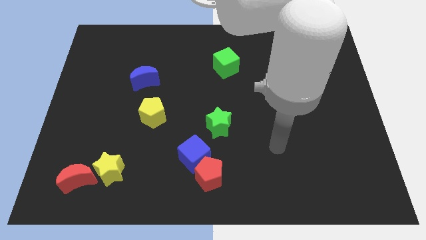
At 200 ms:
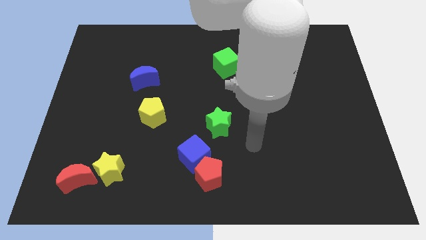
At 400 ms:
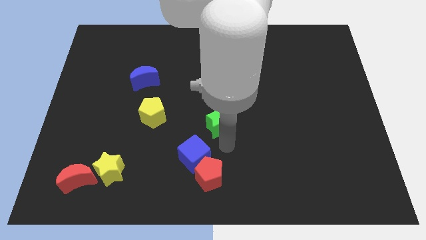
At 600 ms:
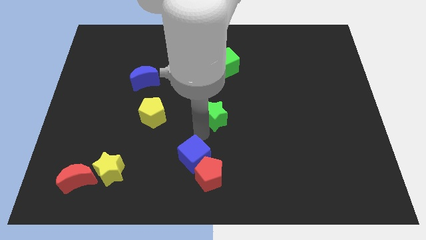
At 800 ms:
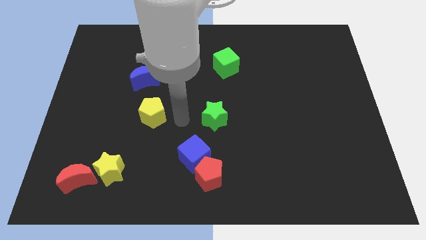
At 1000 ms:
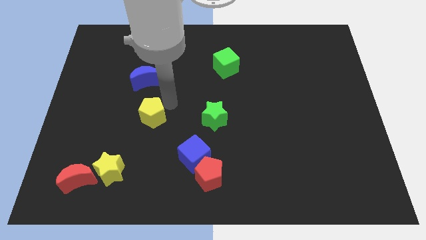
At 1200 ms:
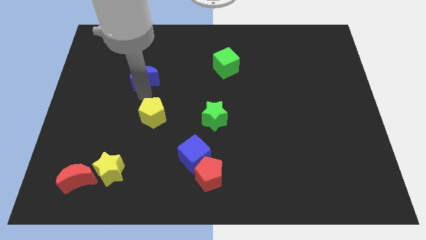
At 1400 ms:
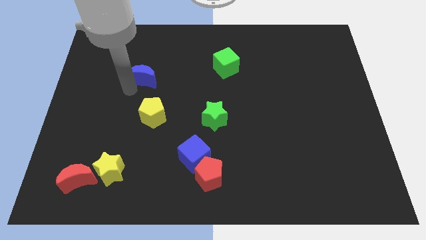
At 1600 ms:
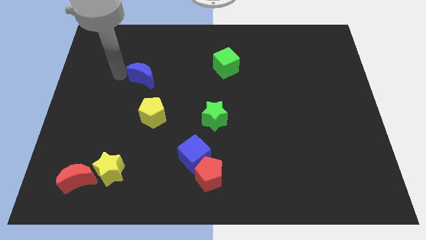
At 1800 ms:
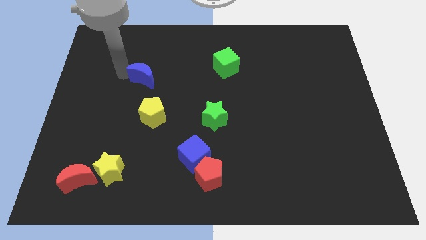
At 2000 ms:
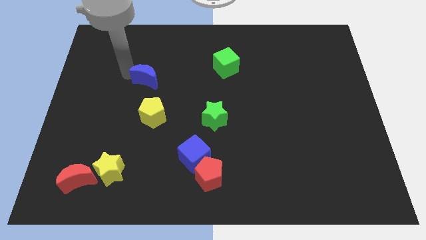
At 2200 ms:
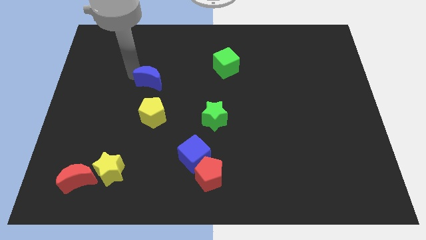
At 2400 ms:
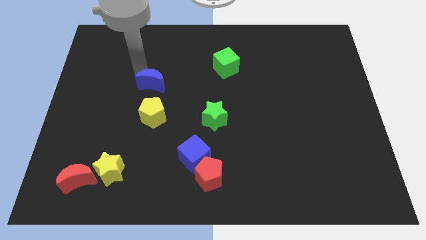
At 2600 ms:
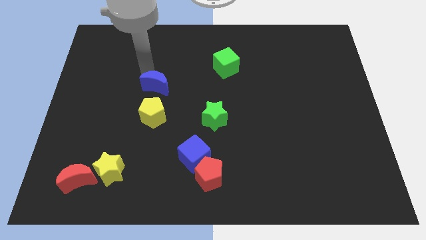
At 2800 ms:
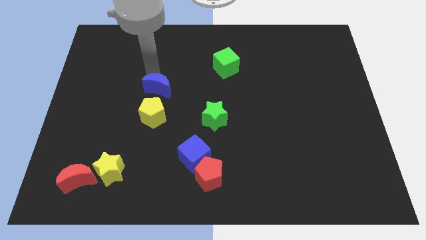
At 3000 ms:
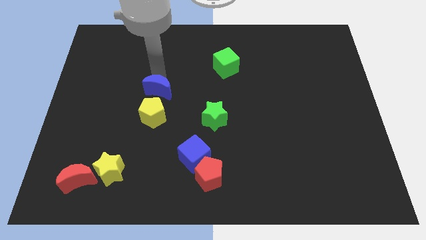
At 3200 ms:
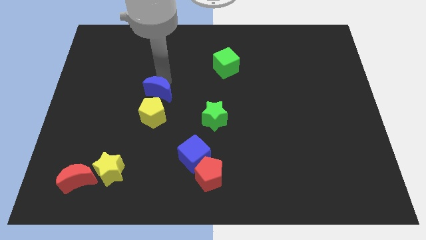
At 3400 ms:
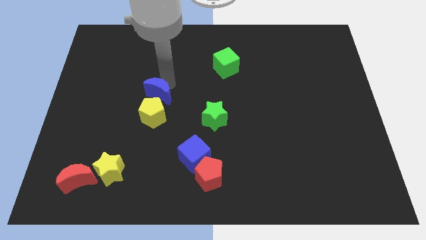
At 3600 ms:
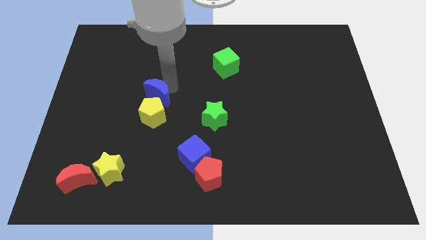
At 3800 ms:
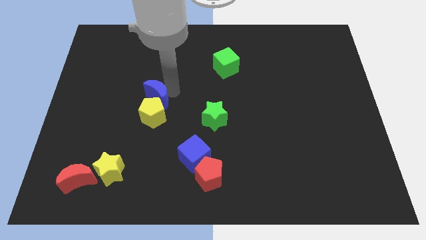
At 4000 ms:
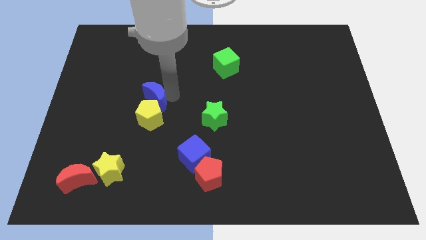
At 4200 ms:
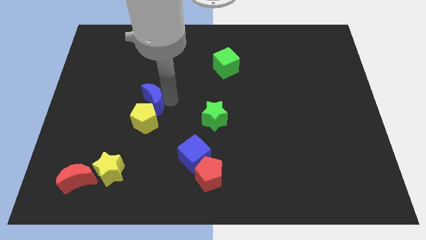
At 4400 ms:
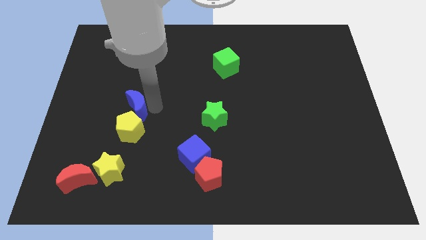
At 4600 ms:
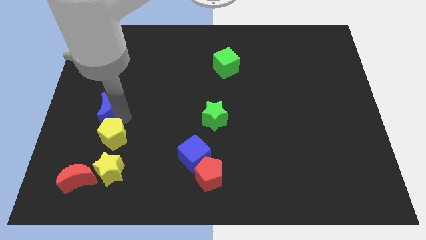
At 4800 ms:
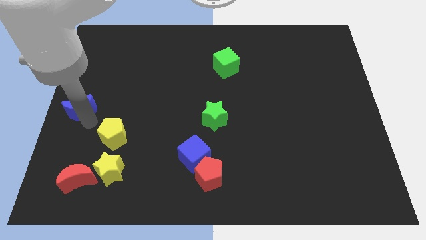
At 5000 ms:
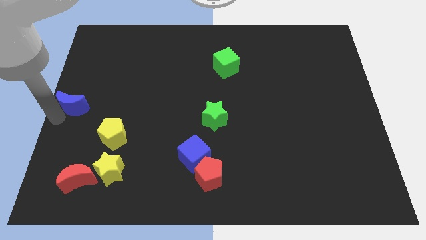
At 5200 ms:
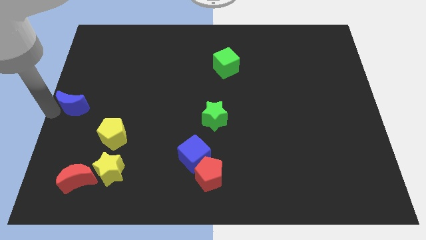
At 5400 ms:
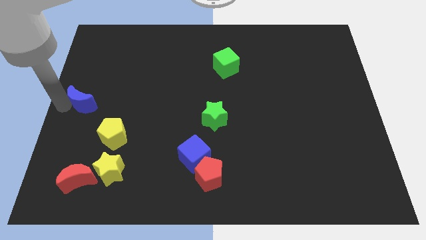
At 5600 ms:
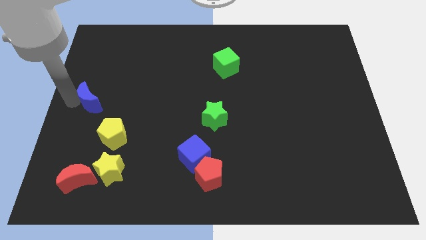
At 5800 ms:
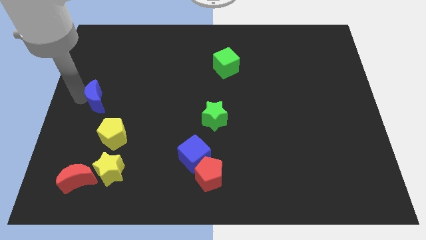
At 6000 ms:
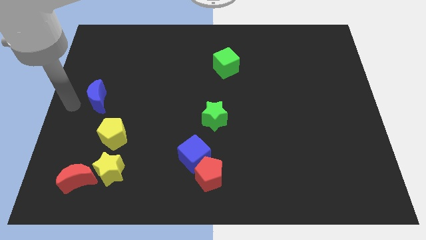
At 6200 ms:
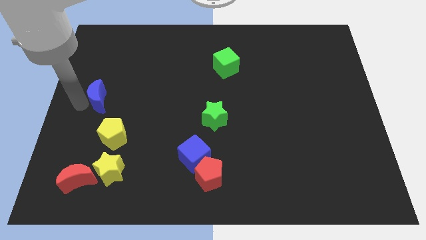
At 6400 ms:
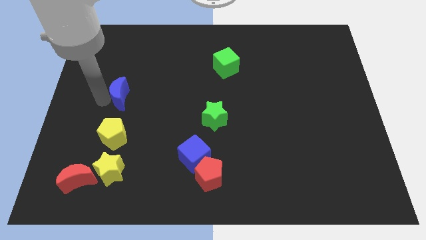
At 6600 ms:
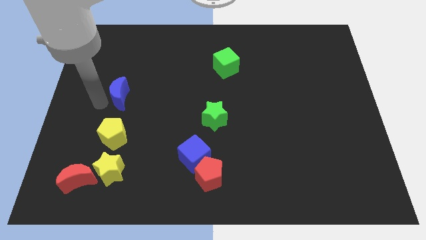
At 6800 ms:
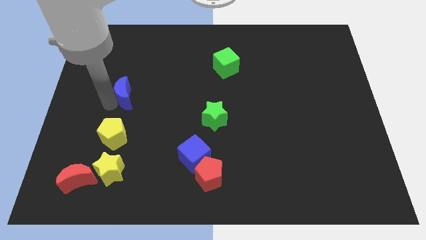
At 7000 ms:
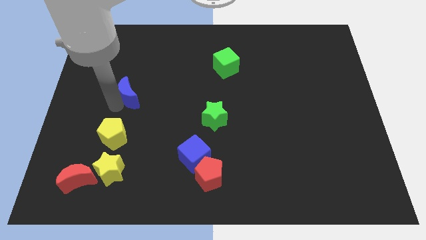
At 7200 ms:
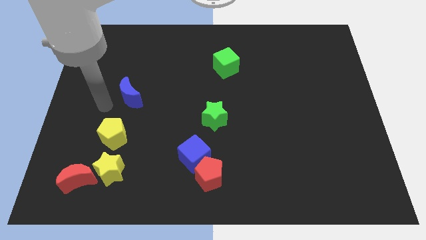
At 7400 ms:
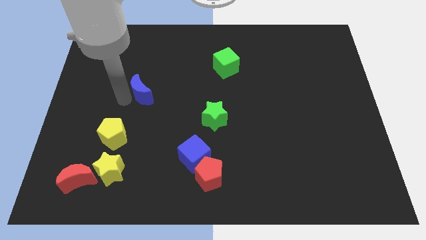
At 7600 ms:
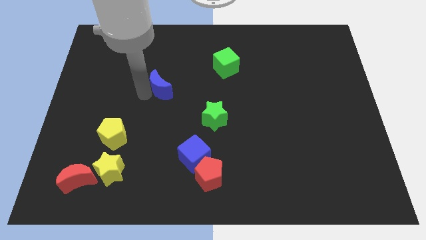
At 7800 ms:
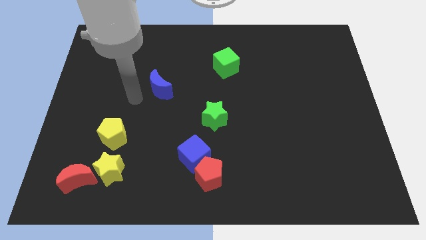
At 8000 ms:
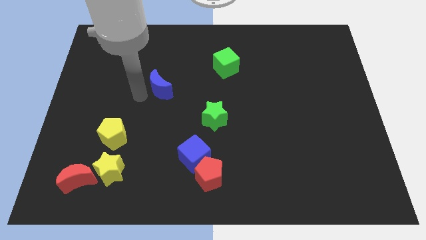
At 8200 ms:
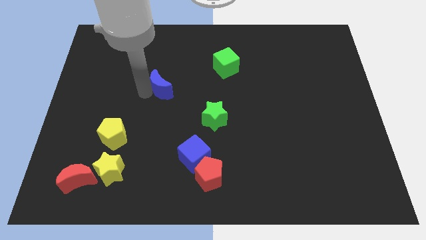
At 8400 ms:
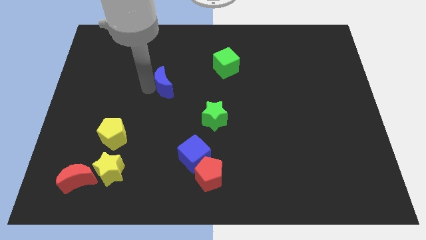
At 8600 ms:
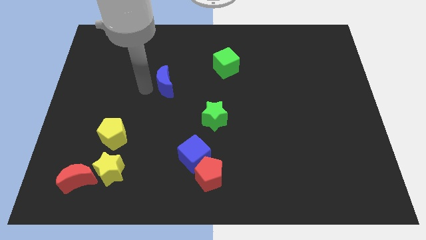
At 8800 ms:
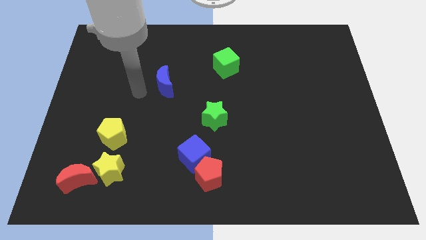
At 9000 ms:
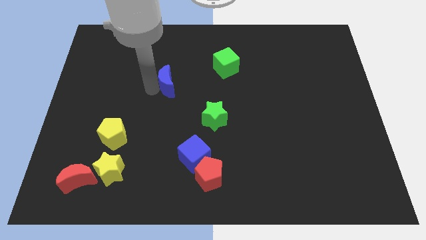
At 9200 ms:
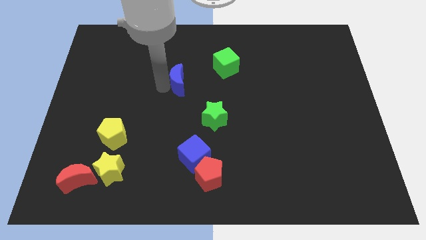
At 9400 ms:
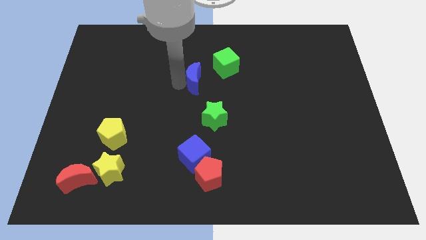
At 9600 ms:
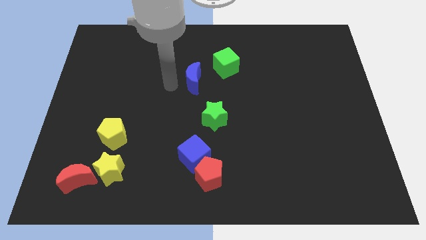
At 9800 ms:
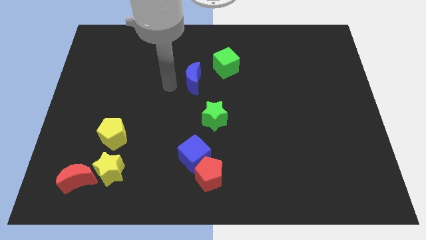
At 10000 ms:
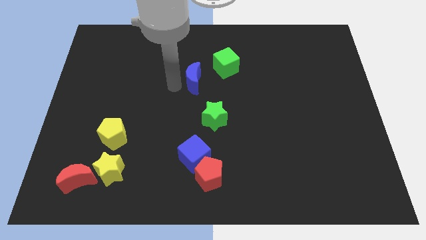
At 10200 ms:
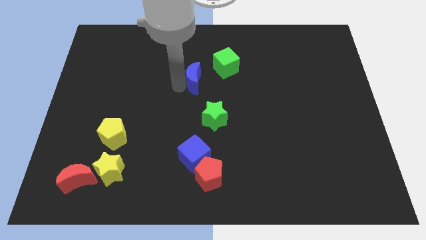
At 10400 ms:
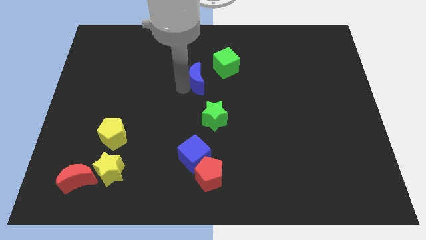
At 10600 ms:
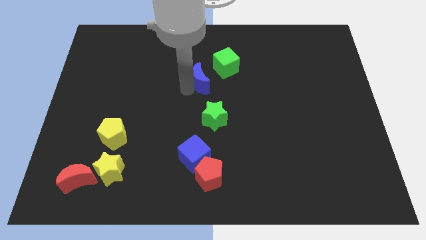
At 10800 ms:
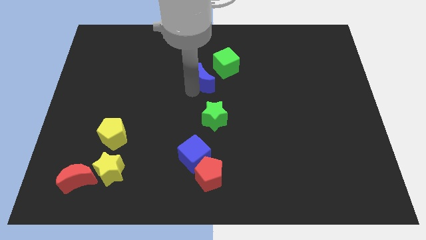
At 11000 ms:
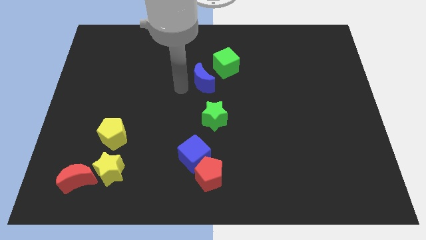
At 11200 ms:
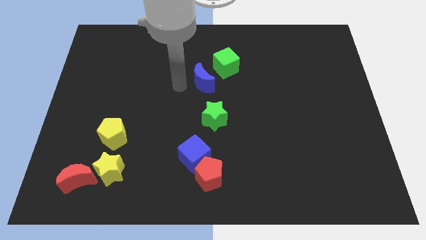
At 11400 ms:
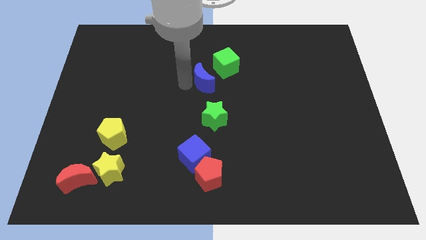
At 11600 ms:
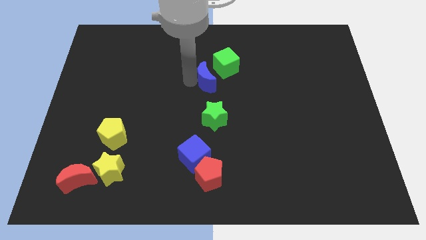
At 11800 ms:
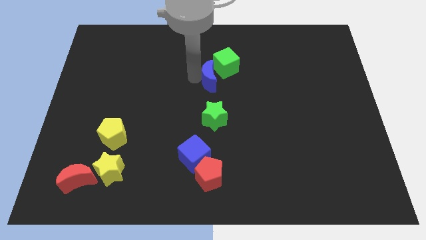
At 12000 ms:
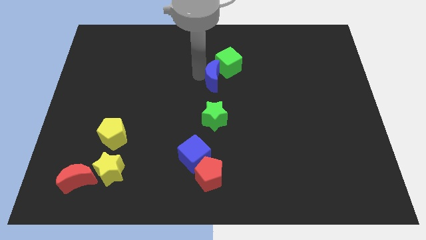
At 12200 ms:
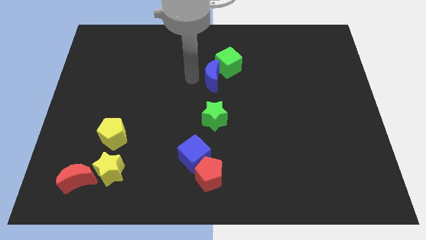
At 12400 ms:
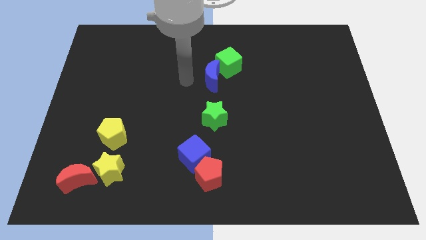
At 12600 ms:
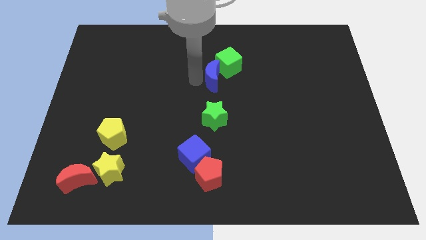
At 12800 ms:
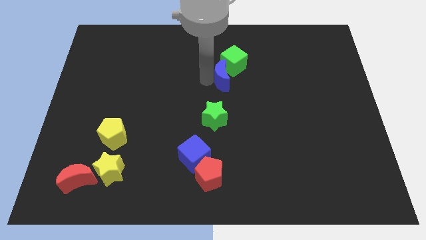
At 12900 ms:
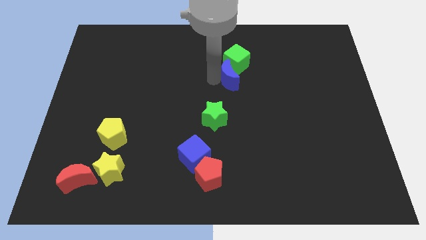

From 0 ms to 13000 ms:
move the blue moon right

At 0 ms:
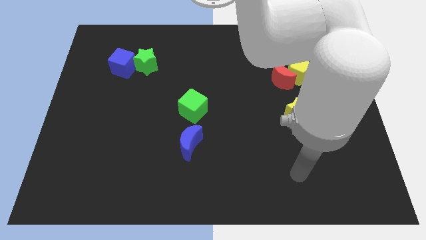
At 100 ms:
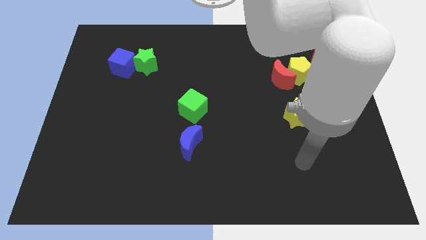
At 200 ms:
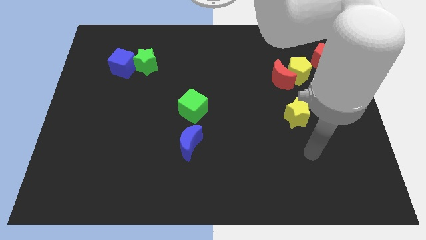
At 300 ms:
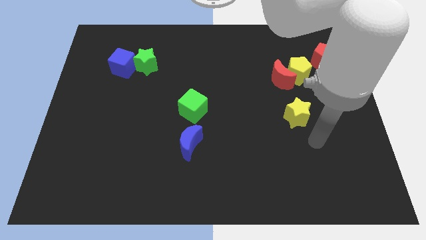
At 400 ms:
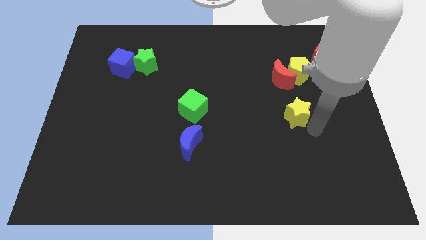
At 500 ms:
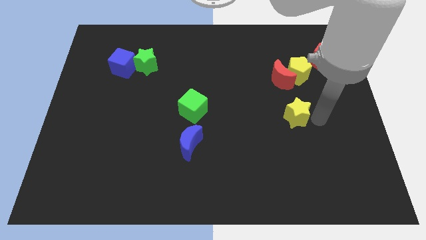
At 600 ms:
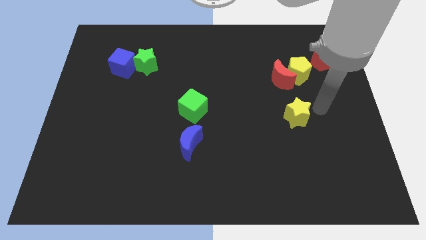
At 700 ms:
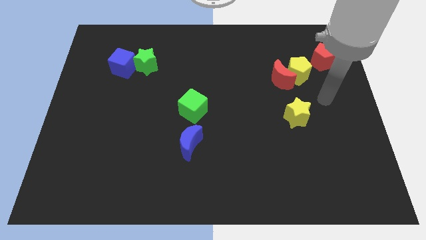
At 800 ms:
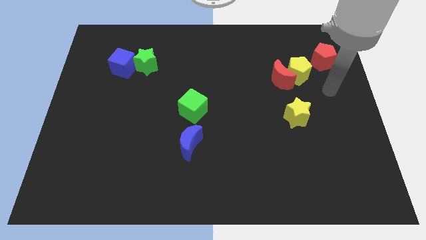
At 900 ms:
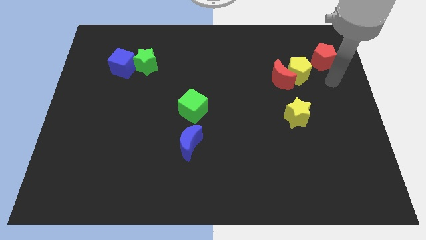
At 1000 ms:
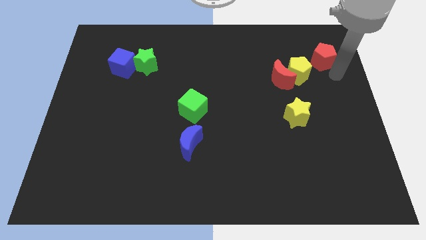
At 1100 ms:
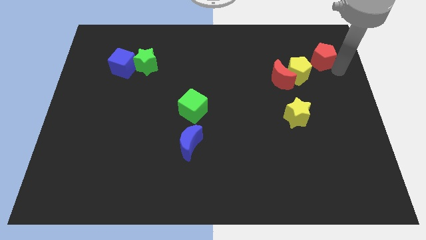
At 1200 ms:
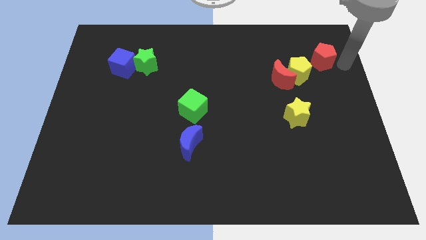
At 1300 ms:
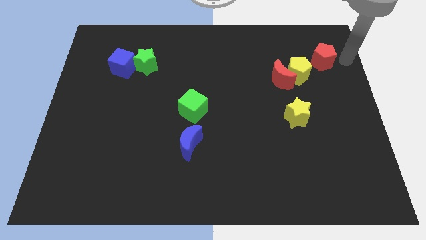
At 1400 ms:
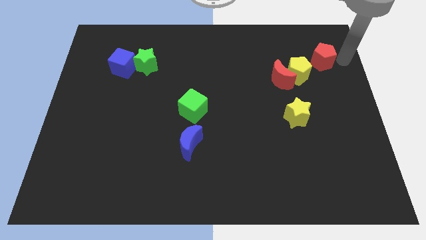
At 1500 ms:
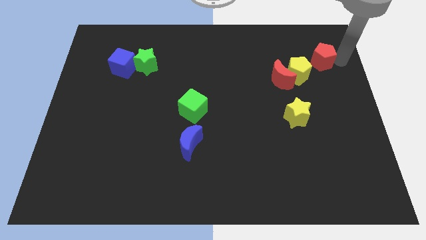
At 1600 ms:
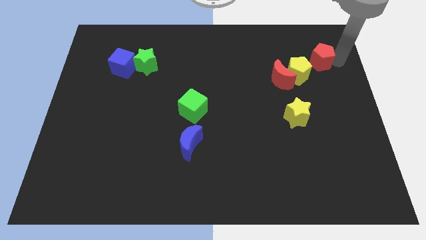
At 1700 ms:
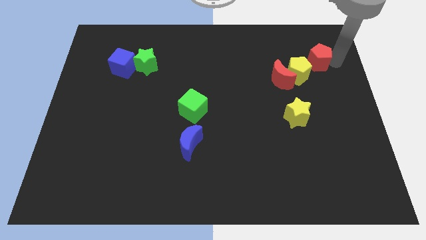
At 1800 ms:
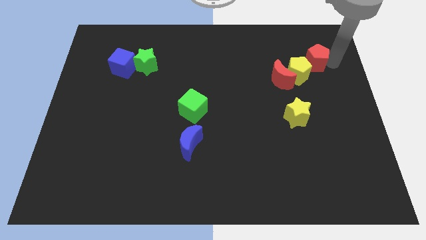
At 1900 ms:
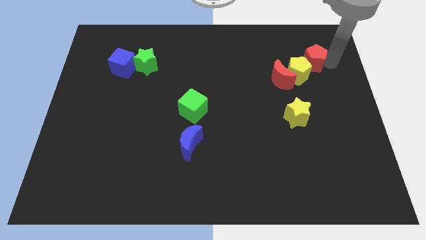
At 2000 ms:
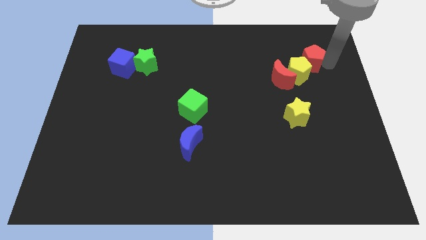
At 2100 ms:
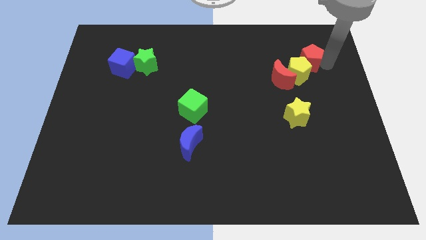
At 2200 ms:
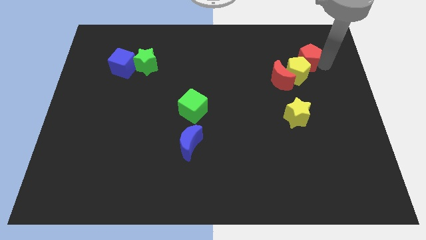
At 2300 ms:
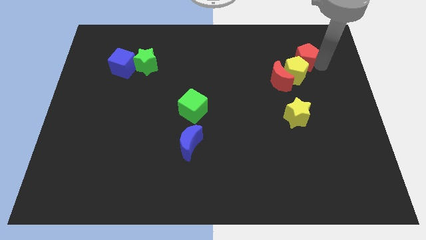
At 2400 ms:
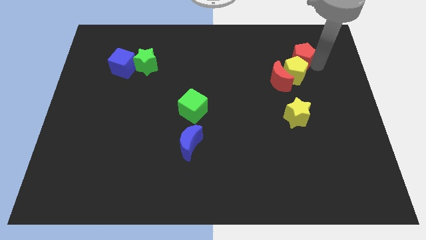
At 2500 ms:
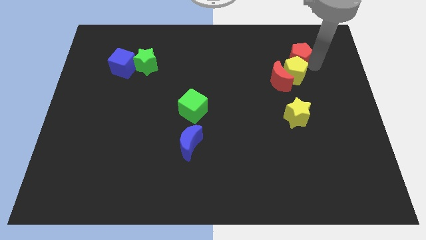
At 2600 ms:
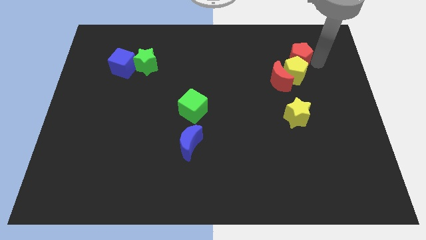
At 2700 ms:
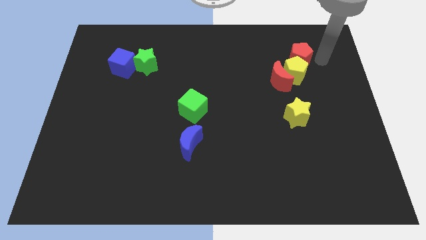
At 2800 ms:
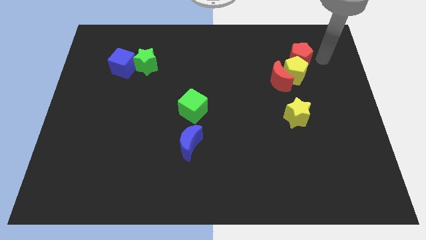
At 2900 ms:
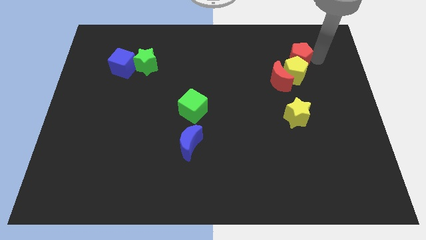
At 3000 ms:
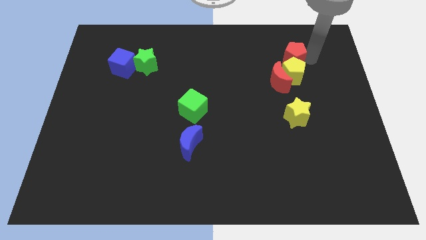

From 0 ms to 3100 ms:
slightly move the red pentagon to the left
